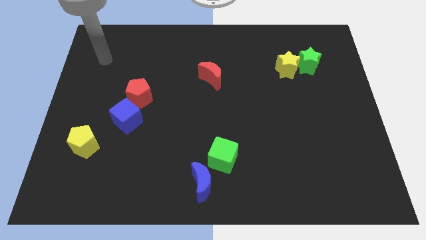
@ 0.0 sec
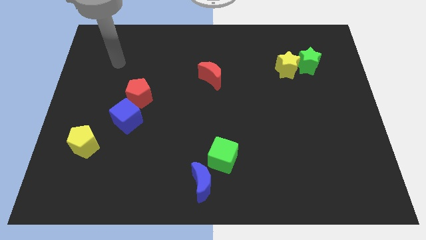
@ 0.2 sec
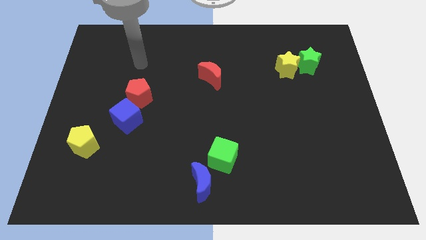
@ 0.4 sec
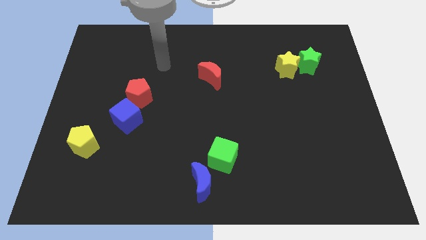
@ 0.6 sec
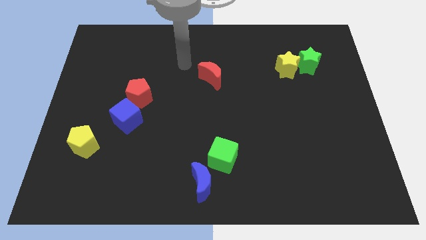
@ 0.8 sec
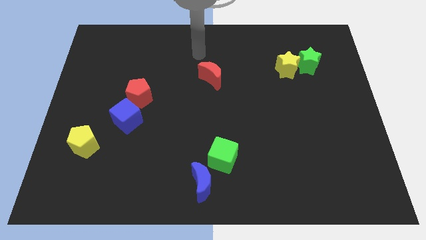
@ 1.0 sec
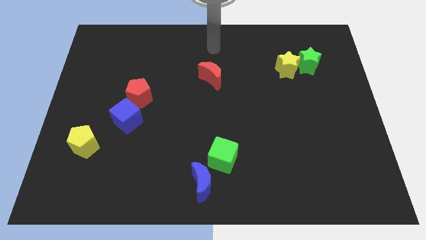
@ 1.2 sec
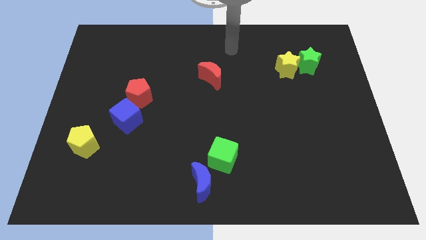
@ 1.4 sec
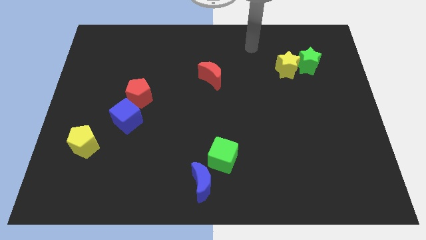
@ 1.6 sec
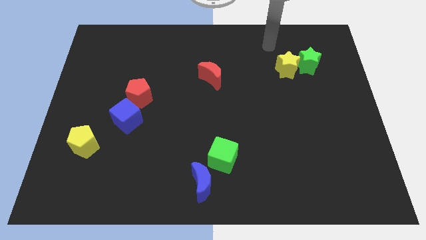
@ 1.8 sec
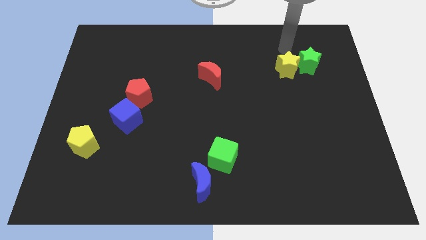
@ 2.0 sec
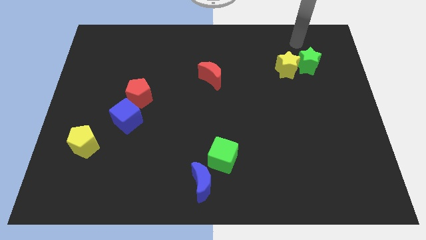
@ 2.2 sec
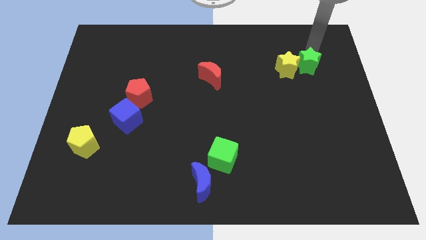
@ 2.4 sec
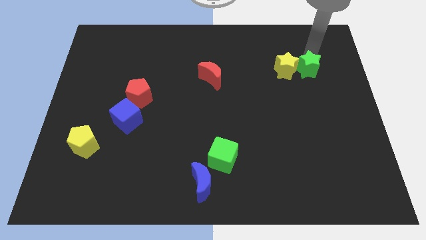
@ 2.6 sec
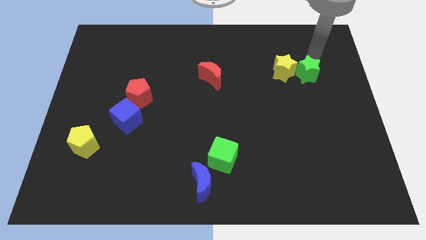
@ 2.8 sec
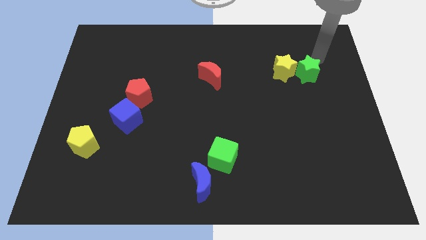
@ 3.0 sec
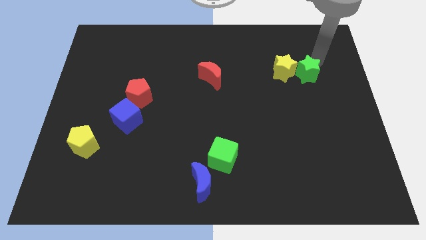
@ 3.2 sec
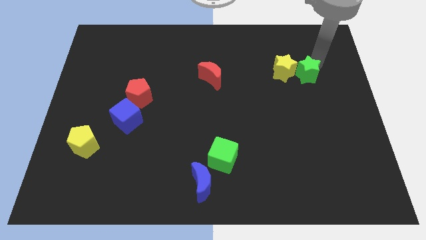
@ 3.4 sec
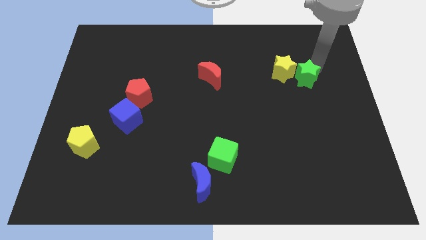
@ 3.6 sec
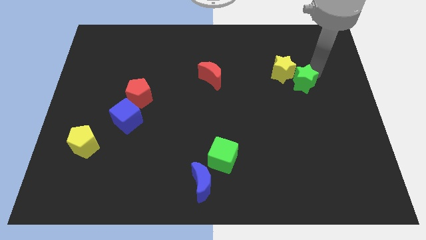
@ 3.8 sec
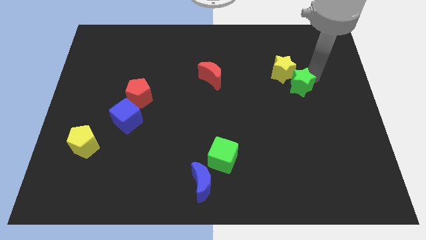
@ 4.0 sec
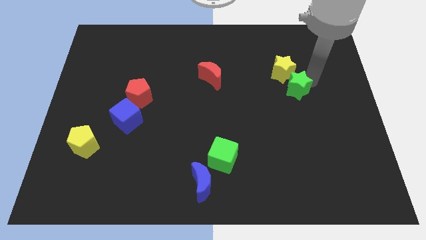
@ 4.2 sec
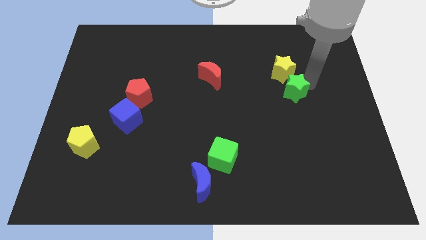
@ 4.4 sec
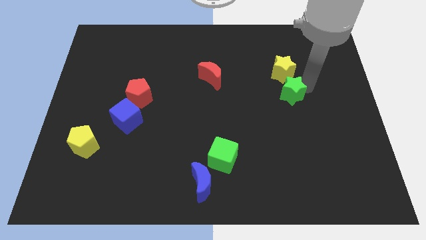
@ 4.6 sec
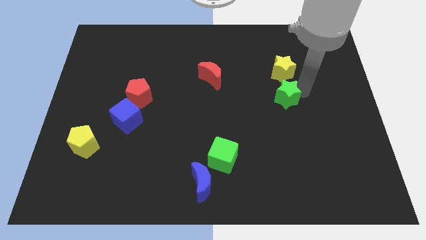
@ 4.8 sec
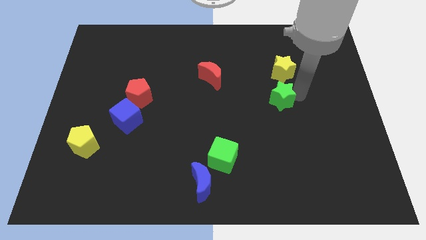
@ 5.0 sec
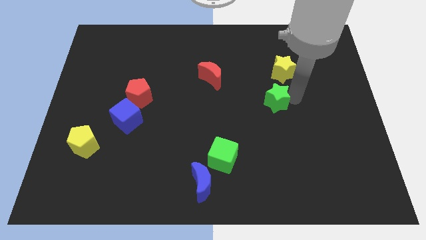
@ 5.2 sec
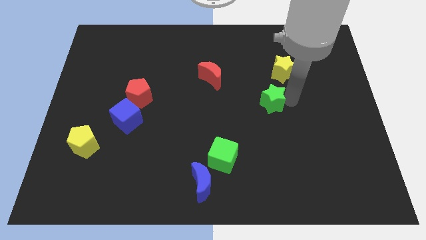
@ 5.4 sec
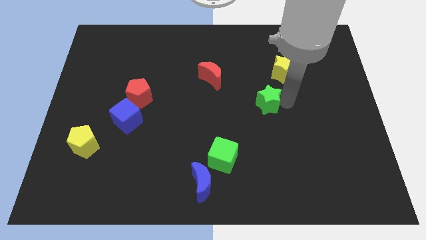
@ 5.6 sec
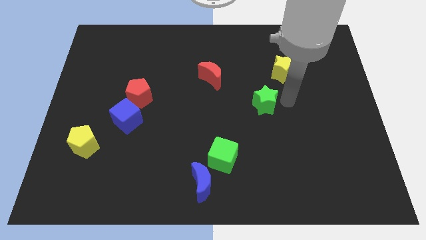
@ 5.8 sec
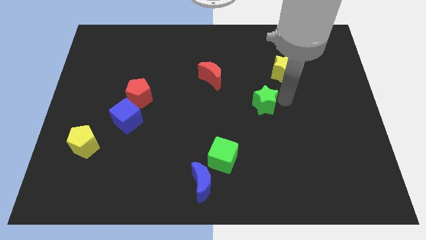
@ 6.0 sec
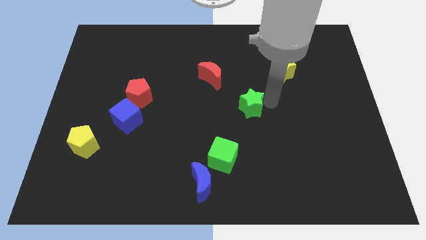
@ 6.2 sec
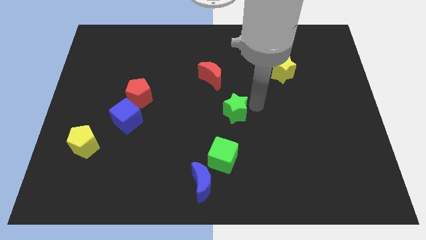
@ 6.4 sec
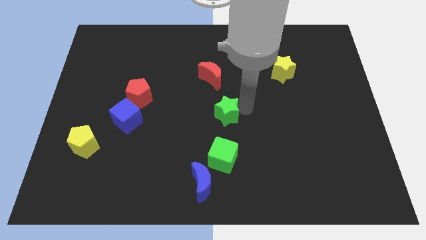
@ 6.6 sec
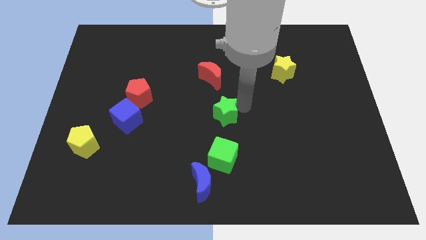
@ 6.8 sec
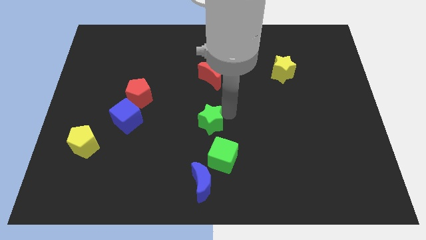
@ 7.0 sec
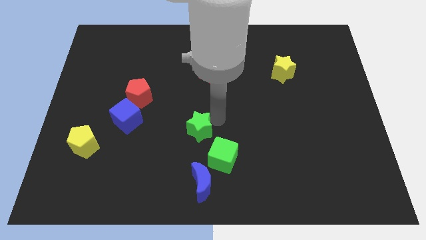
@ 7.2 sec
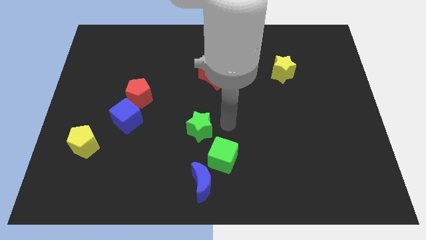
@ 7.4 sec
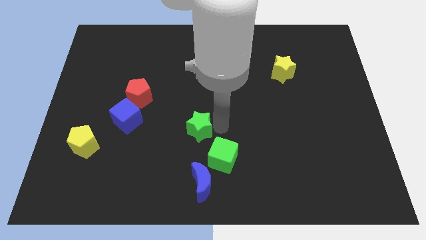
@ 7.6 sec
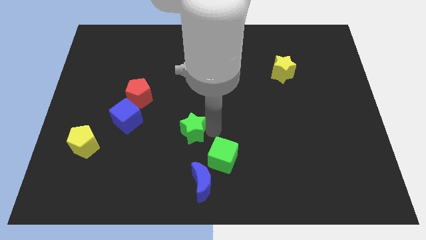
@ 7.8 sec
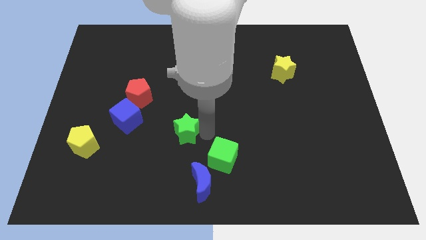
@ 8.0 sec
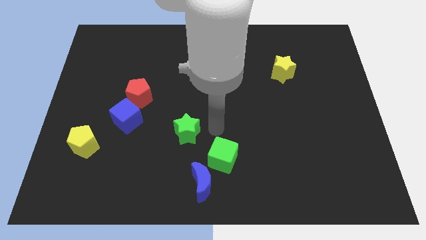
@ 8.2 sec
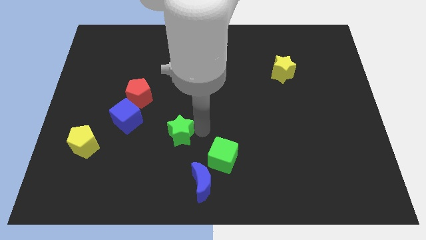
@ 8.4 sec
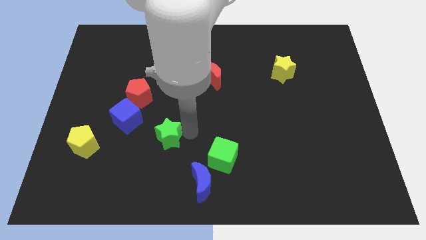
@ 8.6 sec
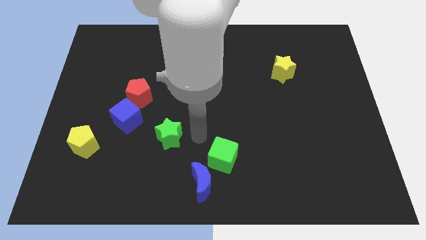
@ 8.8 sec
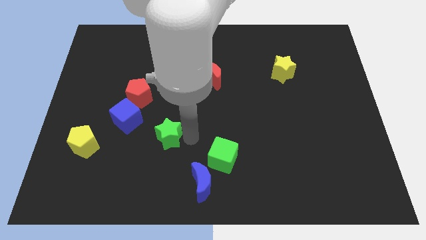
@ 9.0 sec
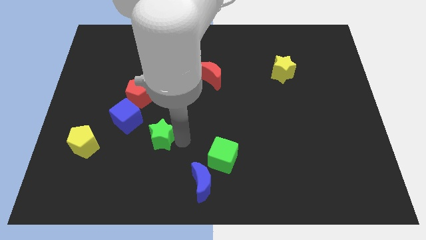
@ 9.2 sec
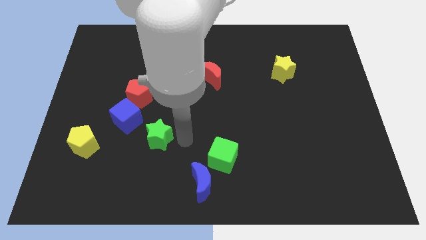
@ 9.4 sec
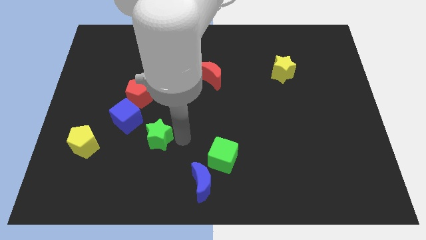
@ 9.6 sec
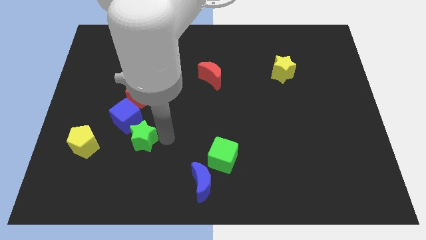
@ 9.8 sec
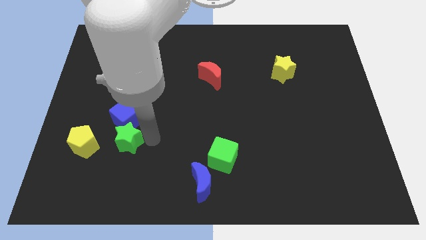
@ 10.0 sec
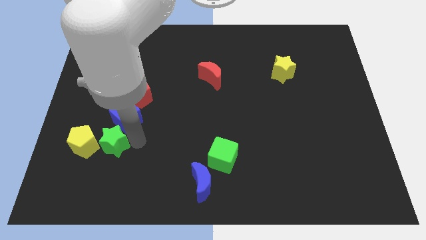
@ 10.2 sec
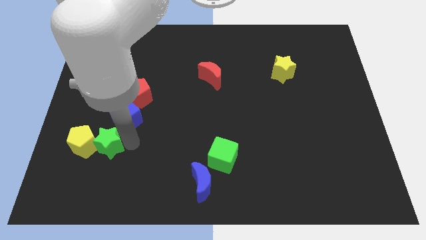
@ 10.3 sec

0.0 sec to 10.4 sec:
push the green star to the yellow pentagon

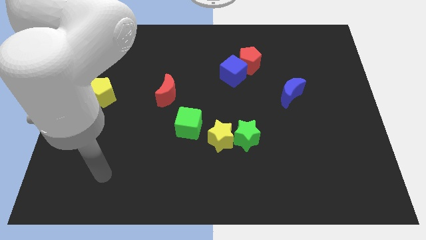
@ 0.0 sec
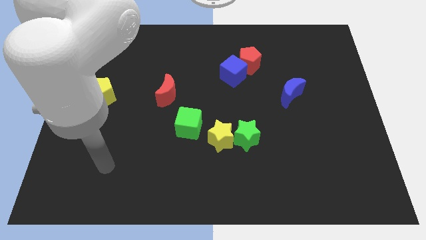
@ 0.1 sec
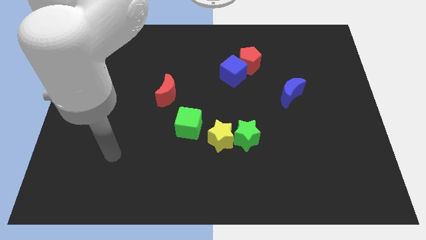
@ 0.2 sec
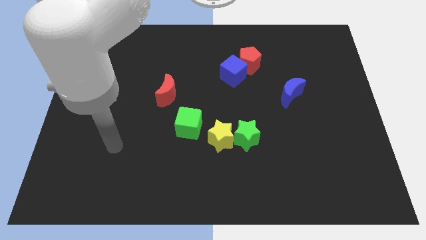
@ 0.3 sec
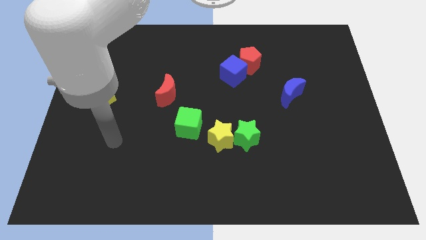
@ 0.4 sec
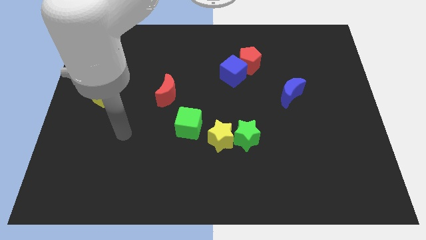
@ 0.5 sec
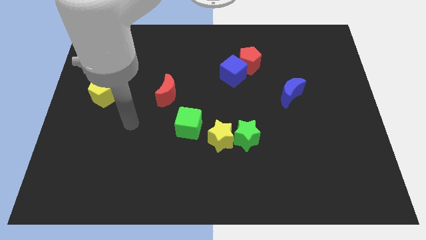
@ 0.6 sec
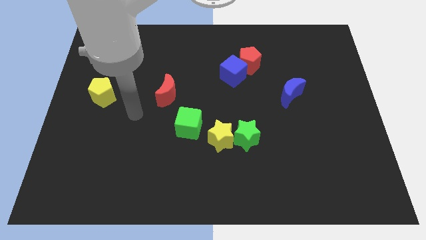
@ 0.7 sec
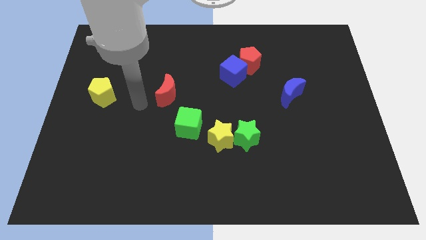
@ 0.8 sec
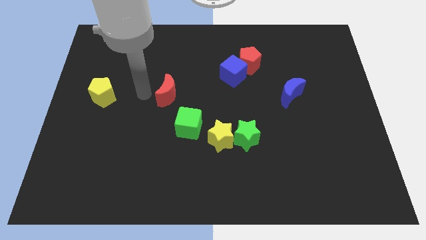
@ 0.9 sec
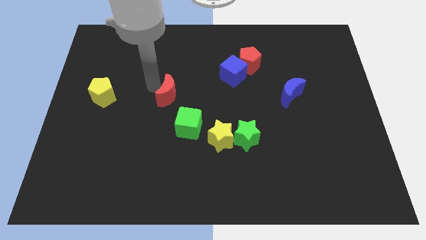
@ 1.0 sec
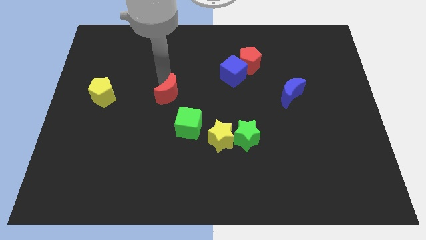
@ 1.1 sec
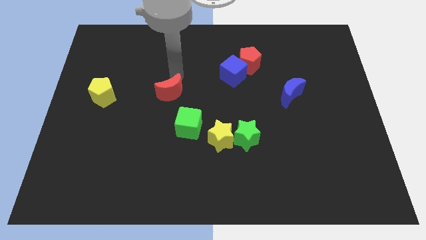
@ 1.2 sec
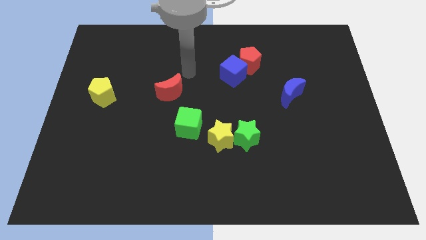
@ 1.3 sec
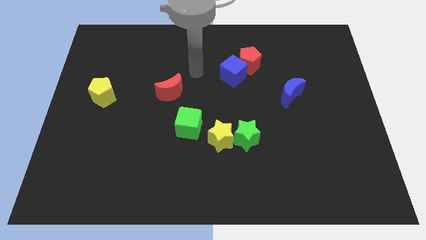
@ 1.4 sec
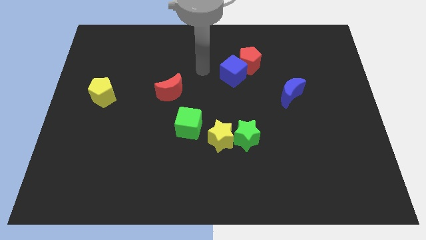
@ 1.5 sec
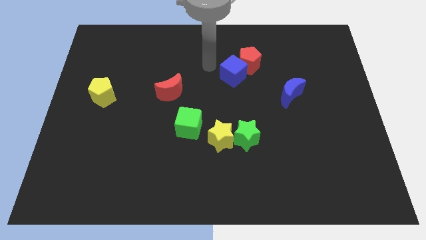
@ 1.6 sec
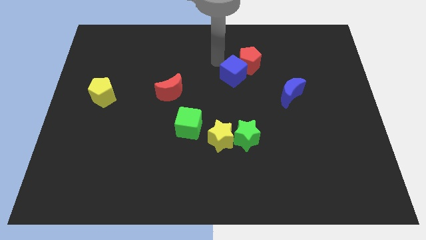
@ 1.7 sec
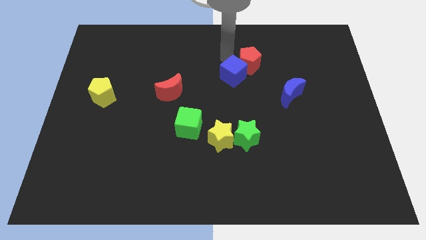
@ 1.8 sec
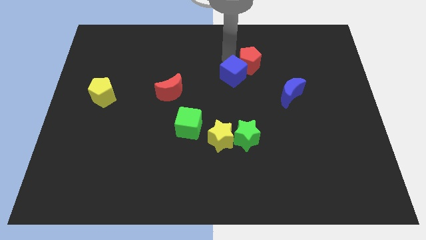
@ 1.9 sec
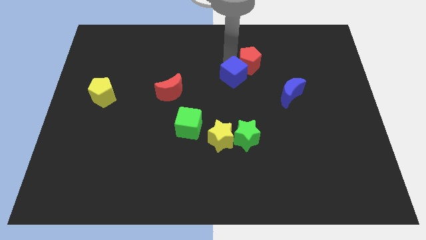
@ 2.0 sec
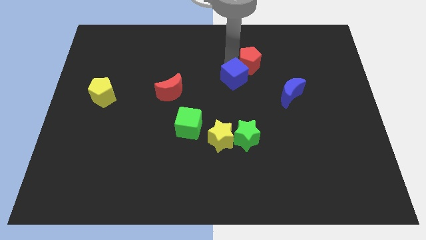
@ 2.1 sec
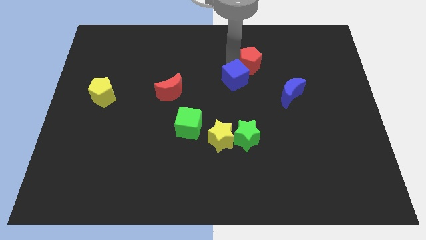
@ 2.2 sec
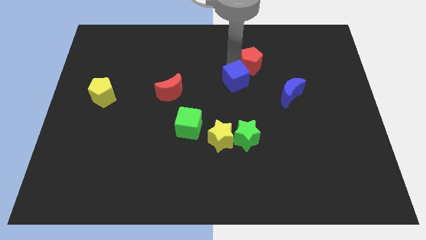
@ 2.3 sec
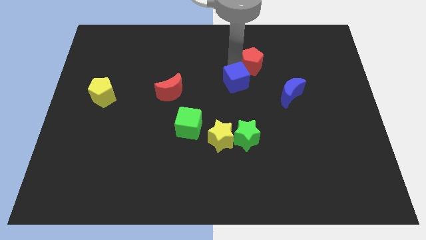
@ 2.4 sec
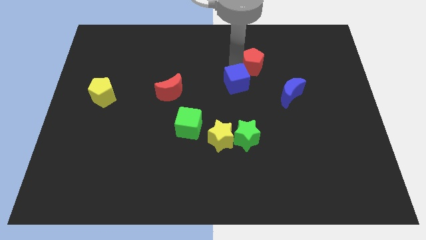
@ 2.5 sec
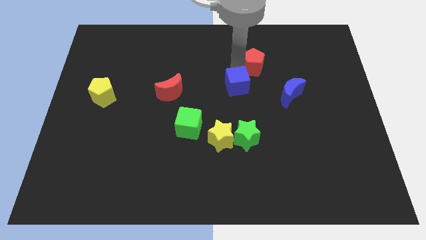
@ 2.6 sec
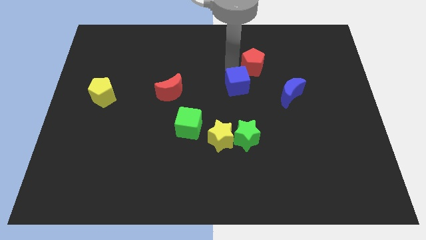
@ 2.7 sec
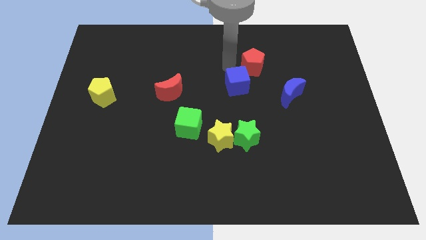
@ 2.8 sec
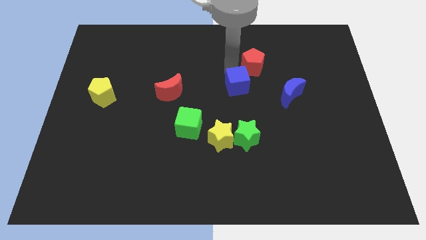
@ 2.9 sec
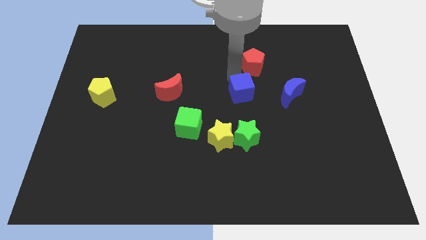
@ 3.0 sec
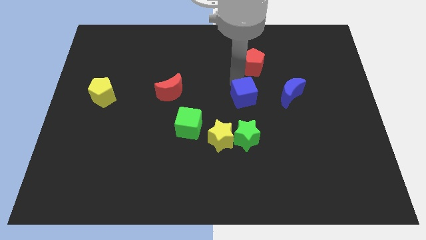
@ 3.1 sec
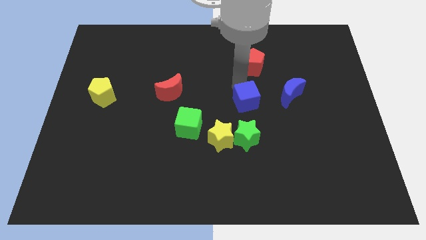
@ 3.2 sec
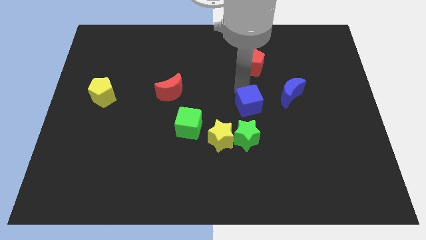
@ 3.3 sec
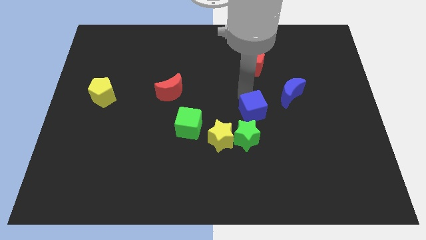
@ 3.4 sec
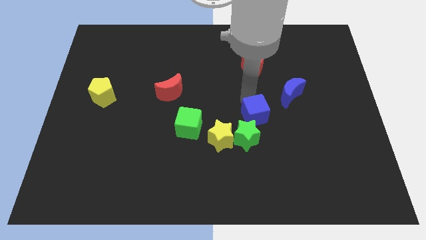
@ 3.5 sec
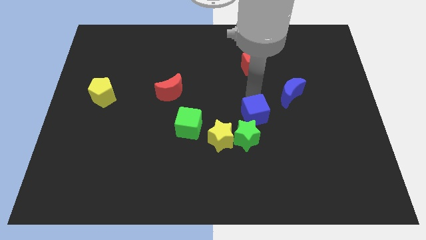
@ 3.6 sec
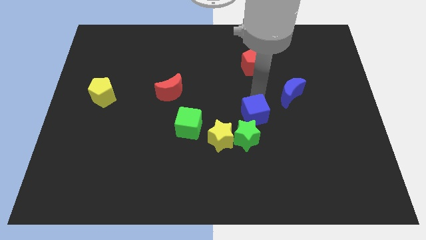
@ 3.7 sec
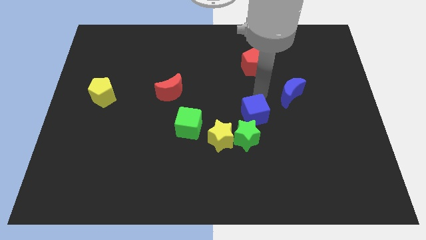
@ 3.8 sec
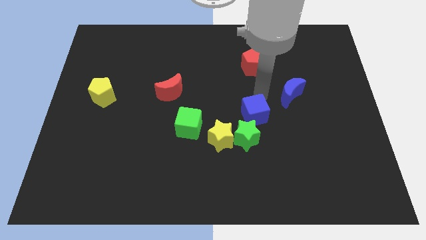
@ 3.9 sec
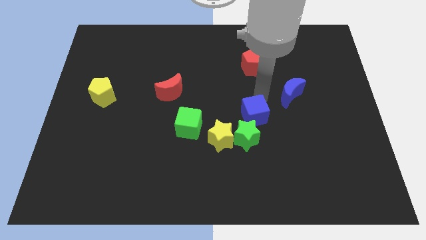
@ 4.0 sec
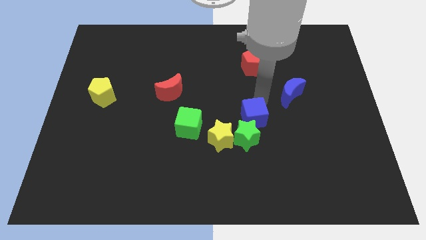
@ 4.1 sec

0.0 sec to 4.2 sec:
move the blue cube next to the green star
